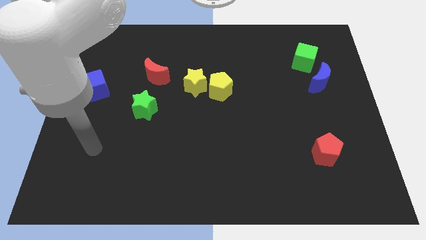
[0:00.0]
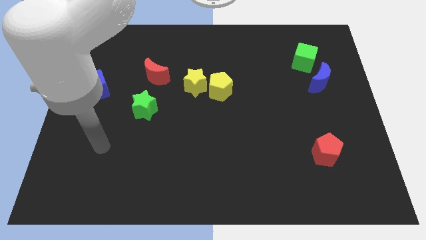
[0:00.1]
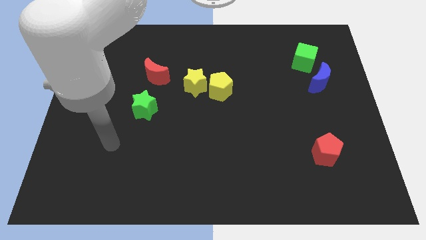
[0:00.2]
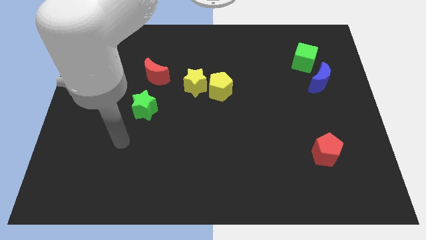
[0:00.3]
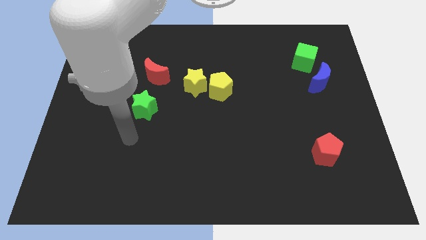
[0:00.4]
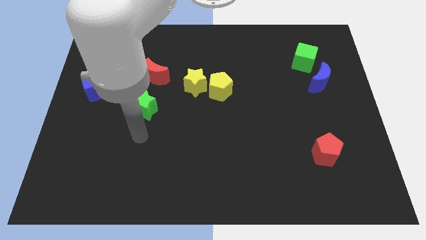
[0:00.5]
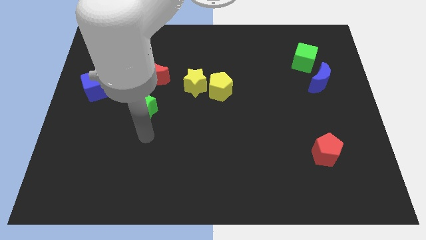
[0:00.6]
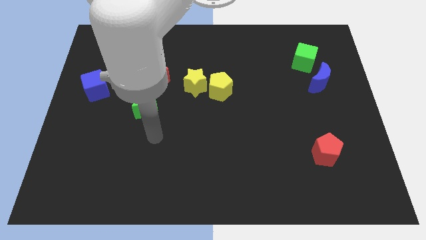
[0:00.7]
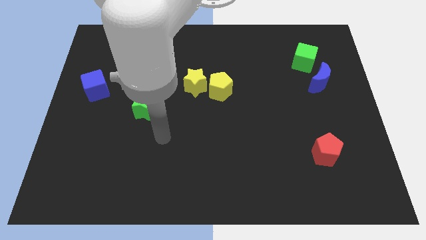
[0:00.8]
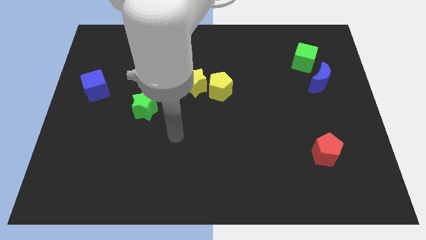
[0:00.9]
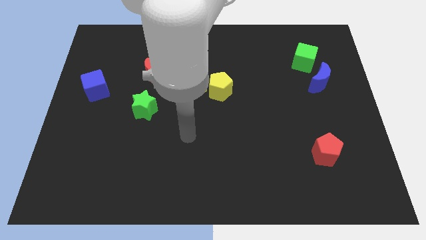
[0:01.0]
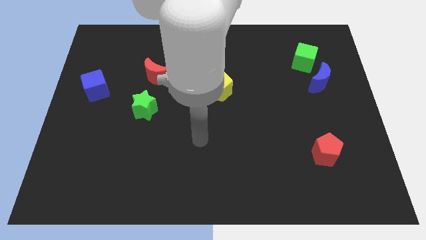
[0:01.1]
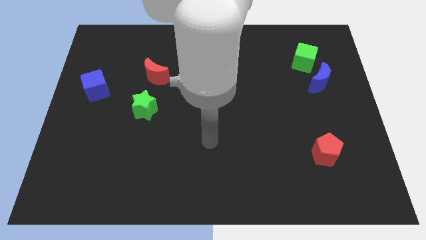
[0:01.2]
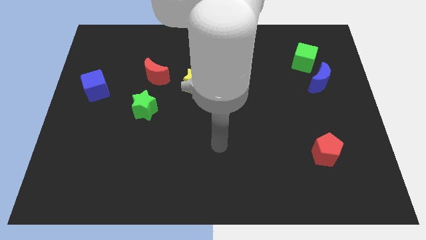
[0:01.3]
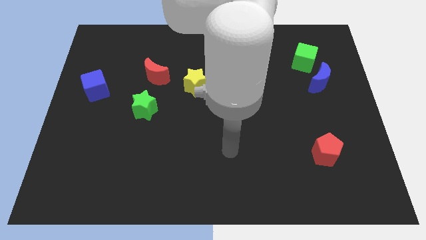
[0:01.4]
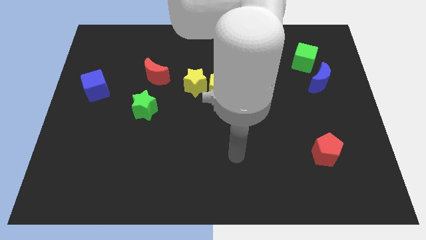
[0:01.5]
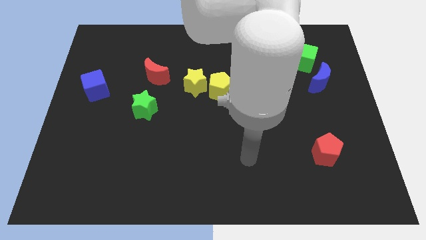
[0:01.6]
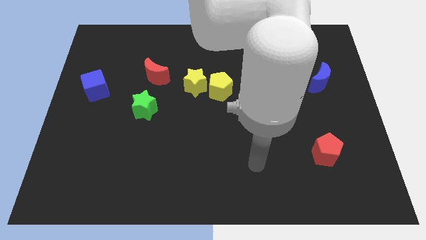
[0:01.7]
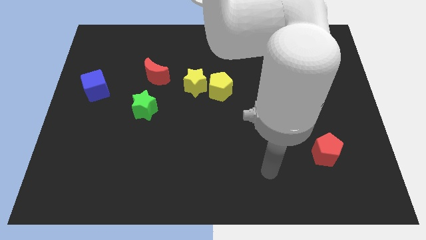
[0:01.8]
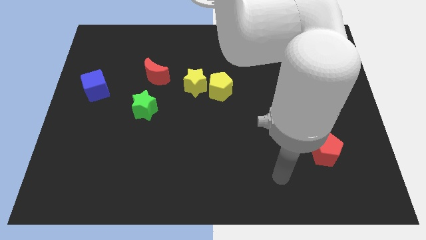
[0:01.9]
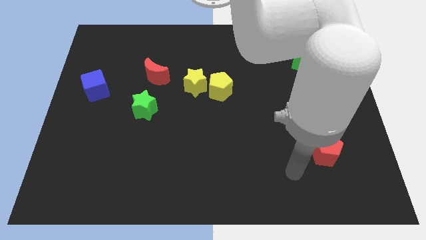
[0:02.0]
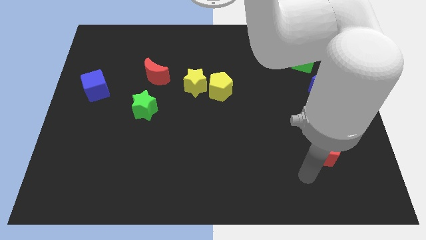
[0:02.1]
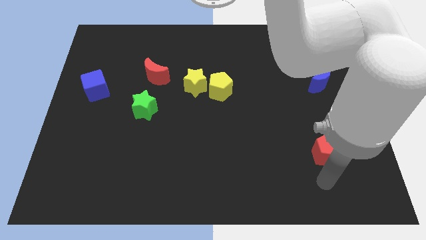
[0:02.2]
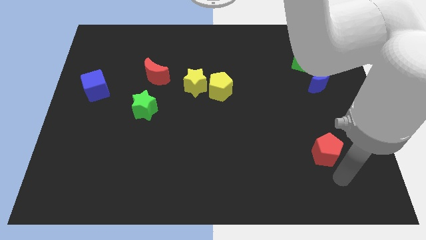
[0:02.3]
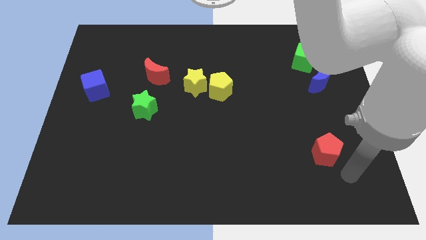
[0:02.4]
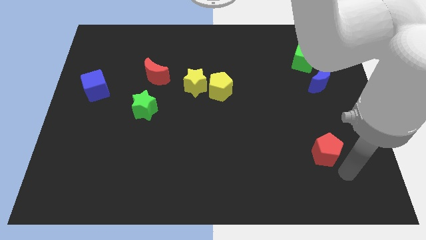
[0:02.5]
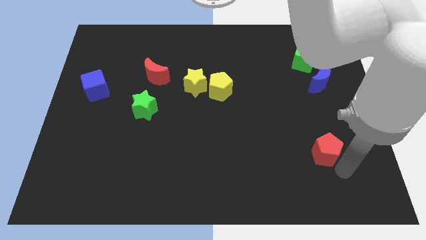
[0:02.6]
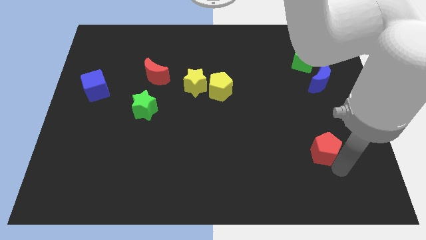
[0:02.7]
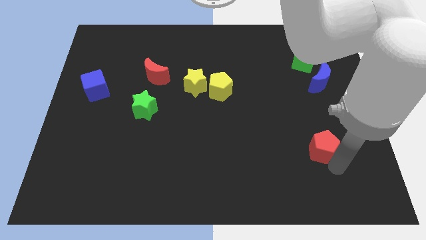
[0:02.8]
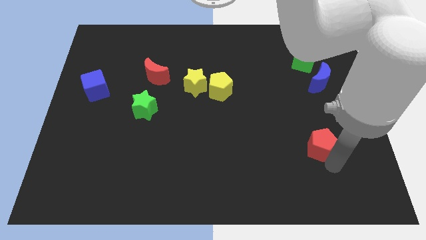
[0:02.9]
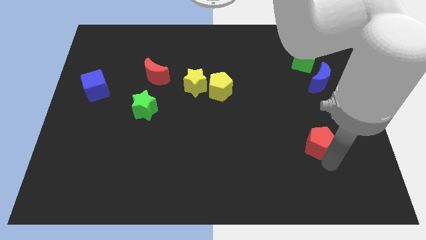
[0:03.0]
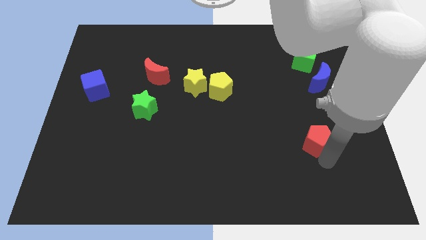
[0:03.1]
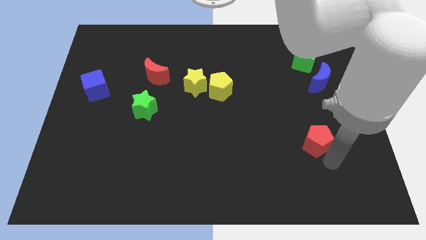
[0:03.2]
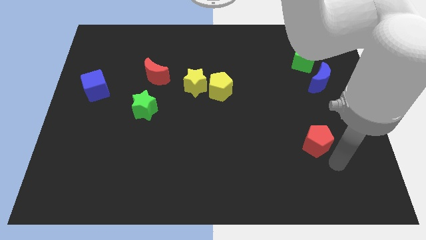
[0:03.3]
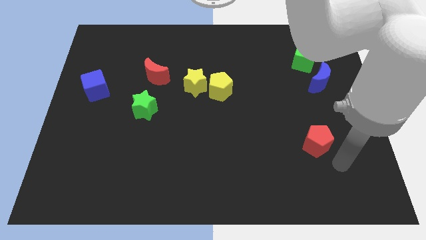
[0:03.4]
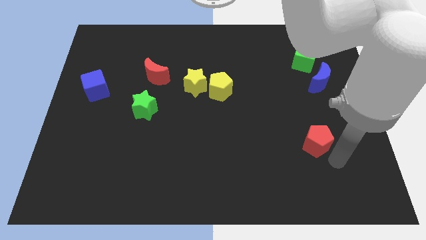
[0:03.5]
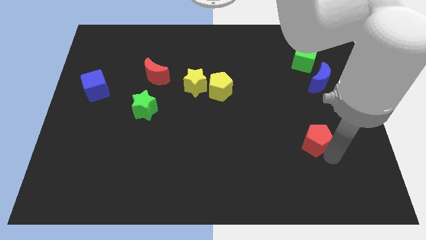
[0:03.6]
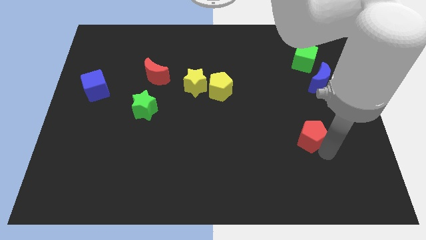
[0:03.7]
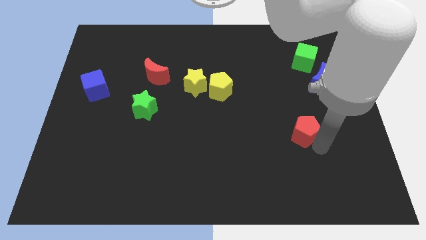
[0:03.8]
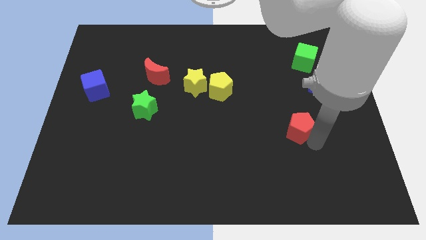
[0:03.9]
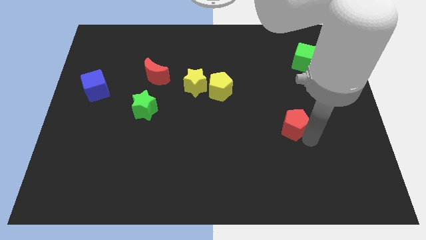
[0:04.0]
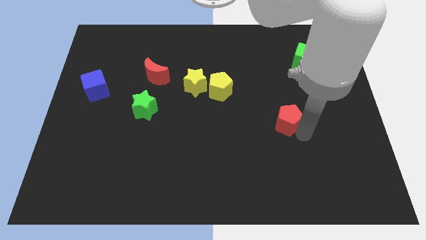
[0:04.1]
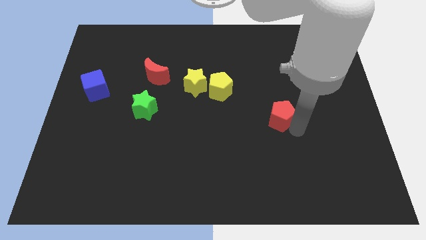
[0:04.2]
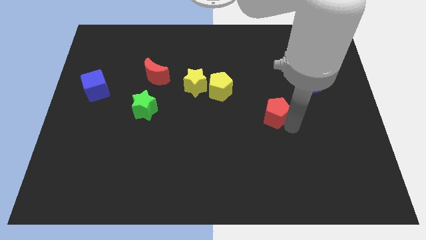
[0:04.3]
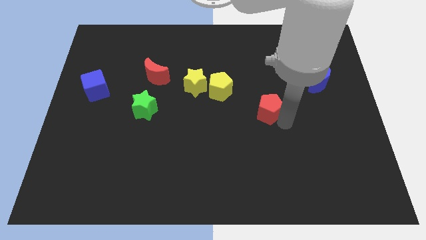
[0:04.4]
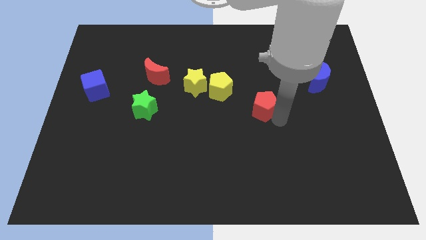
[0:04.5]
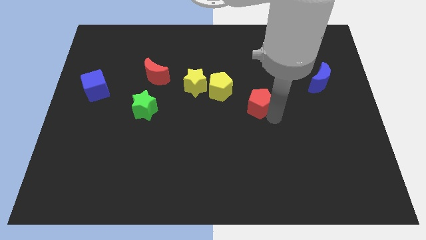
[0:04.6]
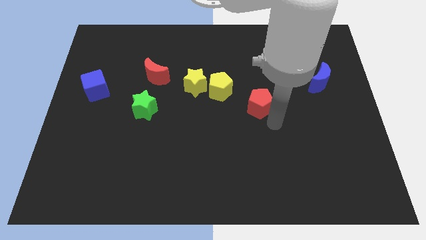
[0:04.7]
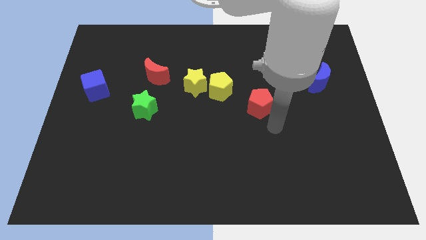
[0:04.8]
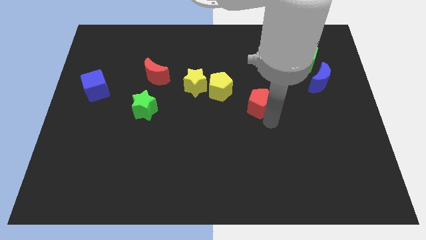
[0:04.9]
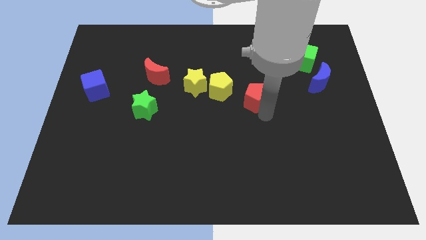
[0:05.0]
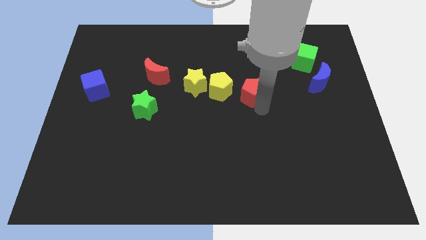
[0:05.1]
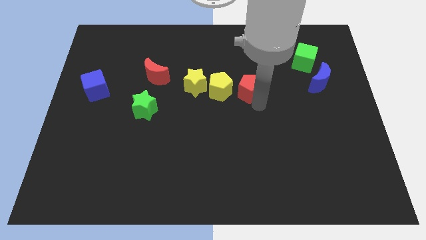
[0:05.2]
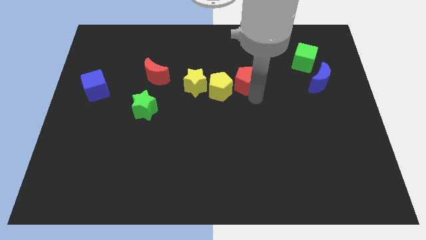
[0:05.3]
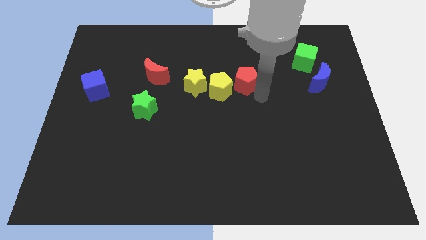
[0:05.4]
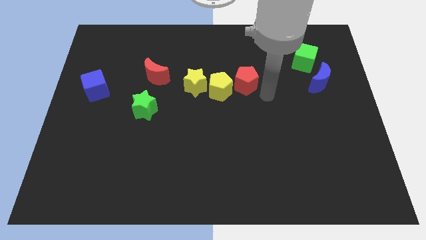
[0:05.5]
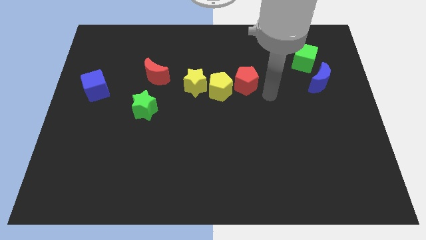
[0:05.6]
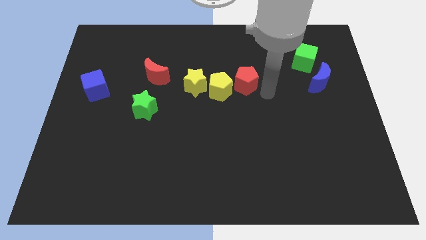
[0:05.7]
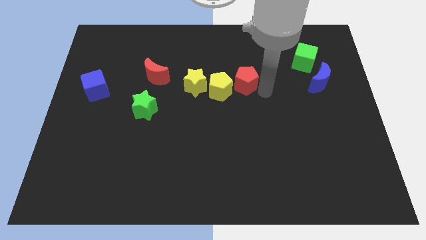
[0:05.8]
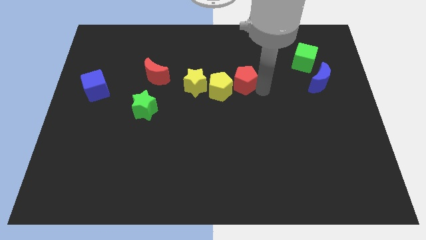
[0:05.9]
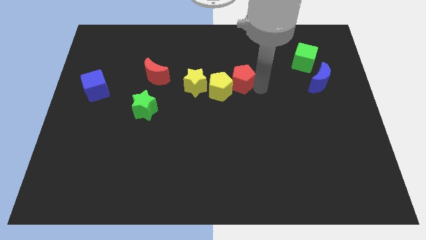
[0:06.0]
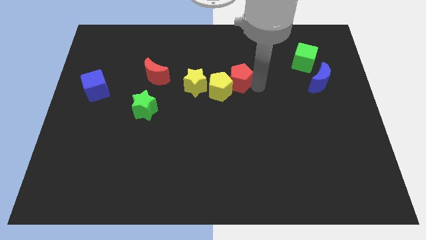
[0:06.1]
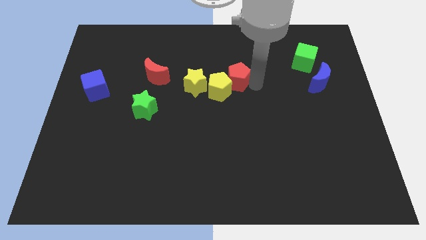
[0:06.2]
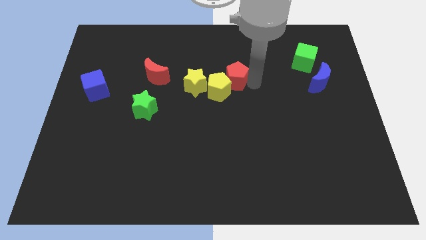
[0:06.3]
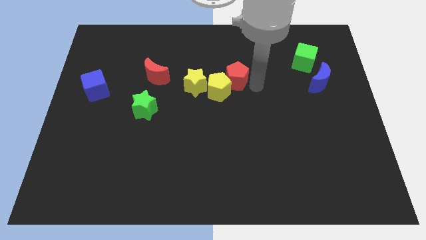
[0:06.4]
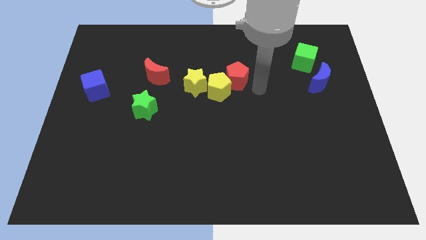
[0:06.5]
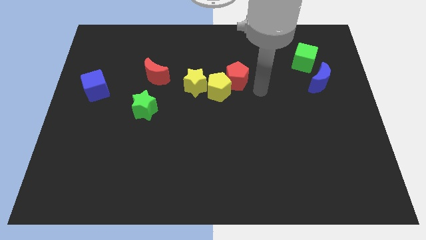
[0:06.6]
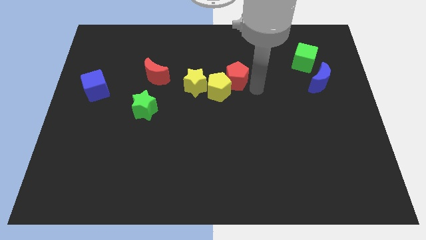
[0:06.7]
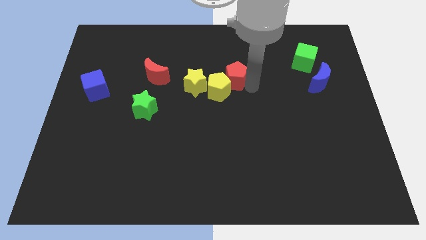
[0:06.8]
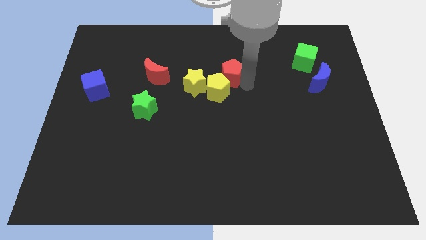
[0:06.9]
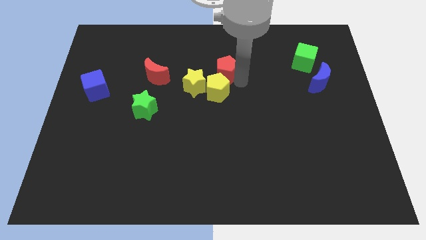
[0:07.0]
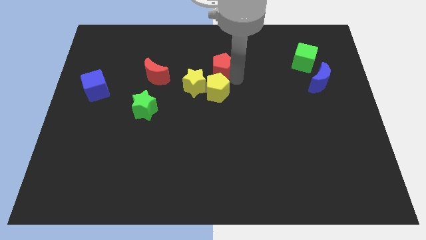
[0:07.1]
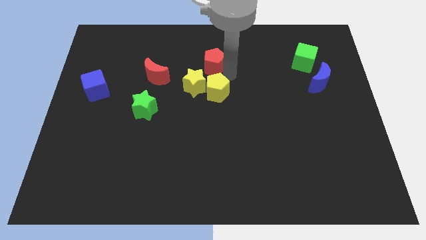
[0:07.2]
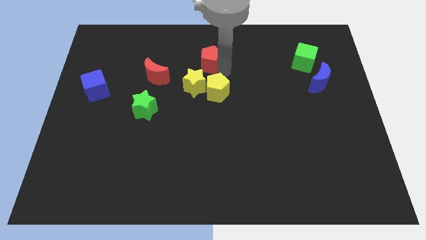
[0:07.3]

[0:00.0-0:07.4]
put the red pentagon above the yellow star
